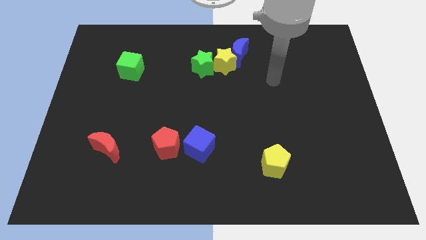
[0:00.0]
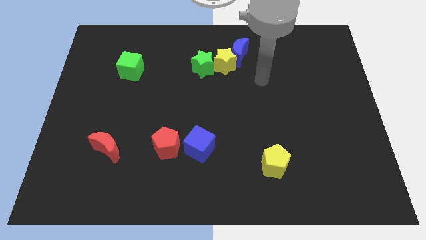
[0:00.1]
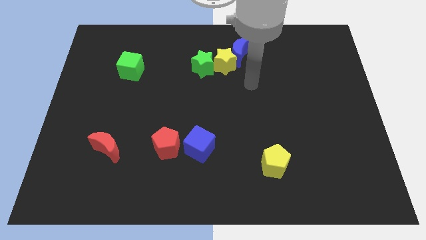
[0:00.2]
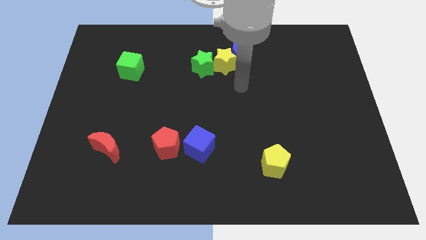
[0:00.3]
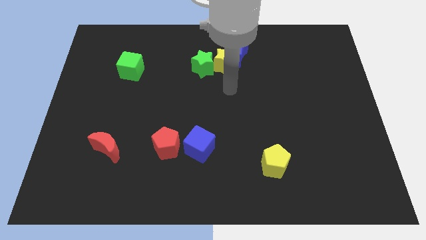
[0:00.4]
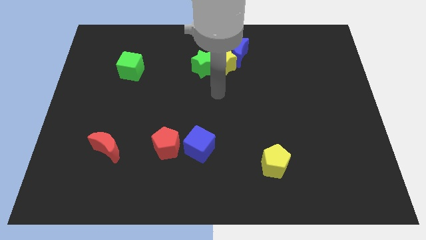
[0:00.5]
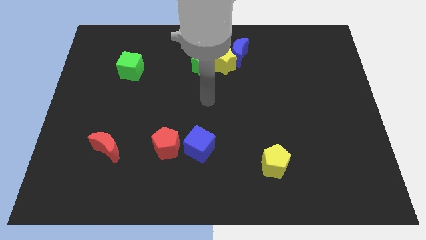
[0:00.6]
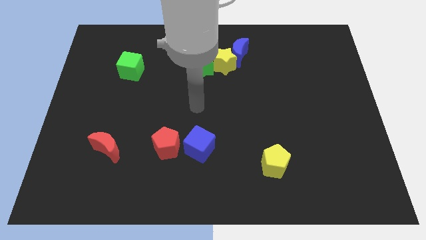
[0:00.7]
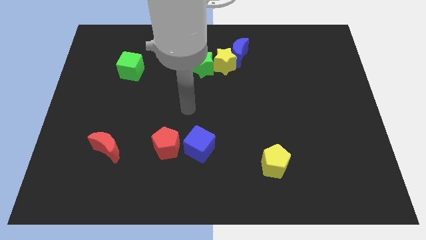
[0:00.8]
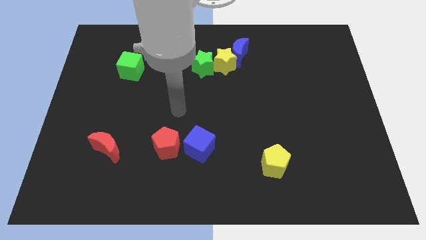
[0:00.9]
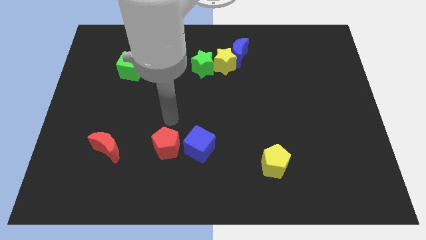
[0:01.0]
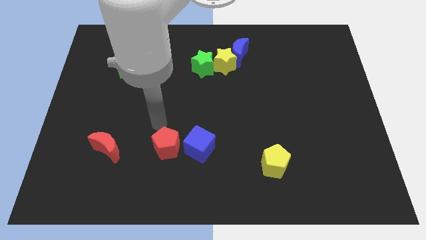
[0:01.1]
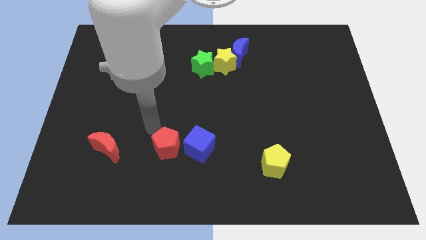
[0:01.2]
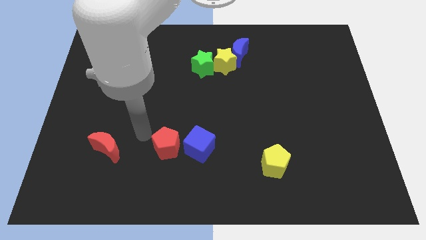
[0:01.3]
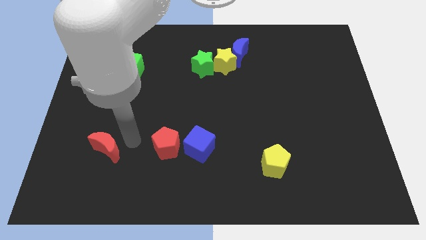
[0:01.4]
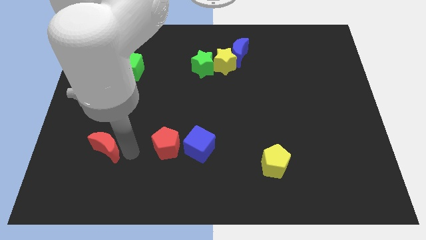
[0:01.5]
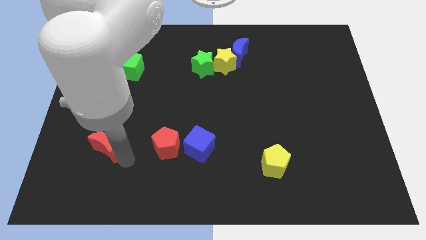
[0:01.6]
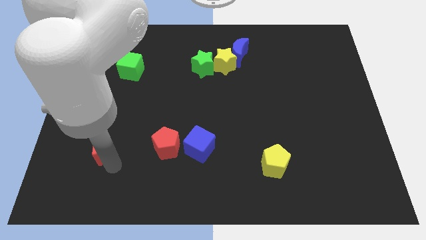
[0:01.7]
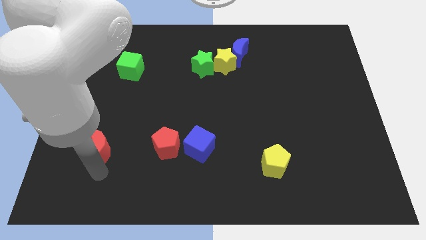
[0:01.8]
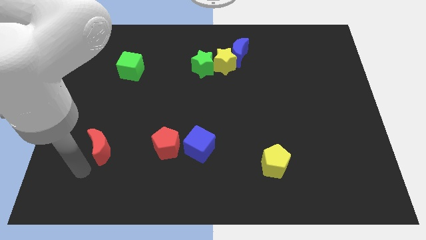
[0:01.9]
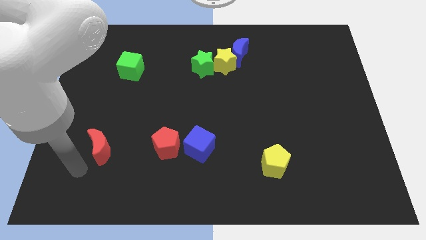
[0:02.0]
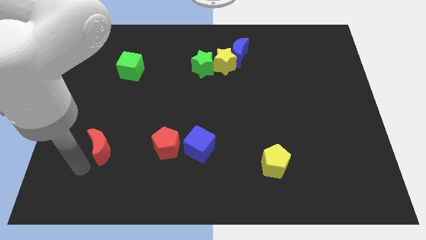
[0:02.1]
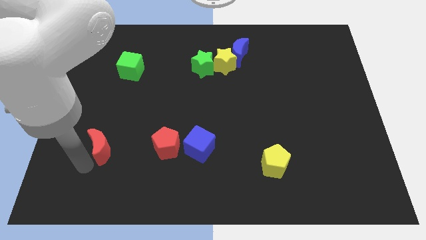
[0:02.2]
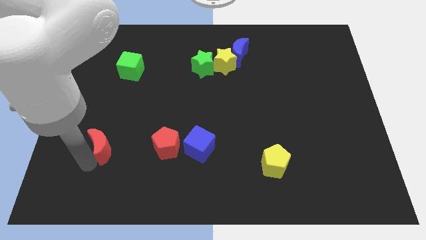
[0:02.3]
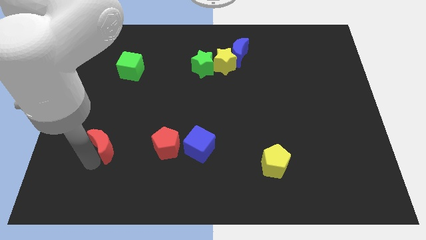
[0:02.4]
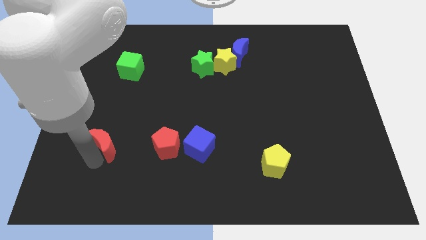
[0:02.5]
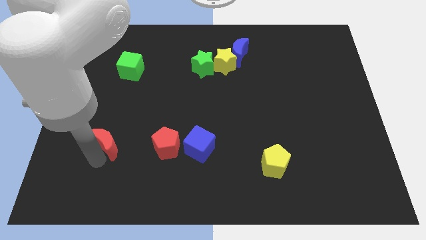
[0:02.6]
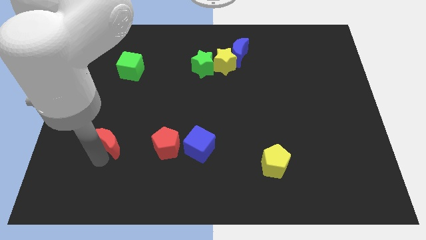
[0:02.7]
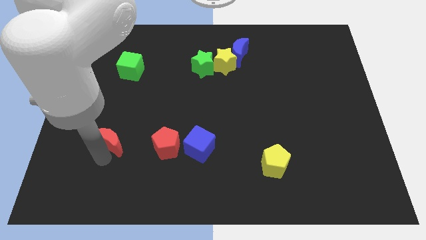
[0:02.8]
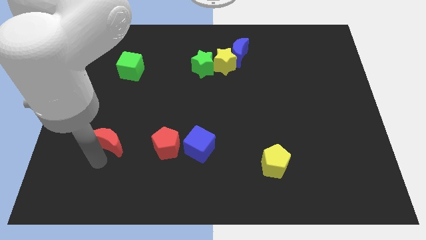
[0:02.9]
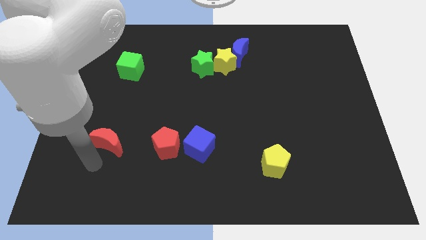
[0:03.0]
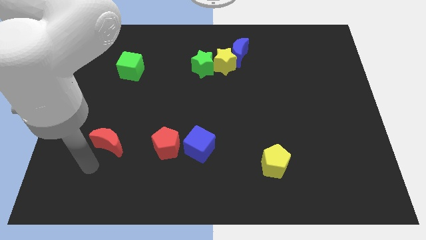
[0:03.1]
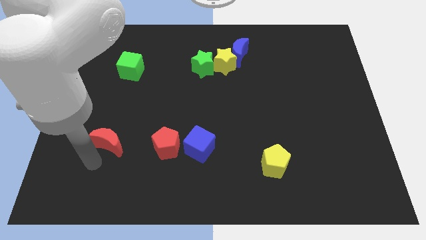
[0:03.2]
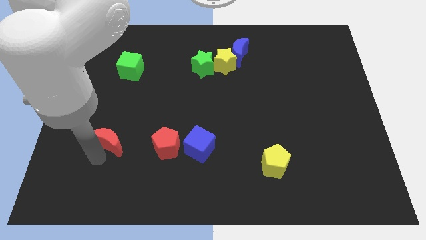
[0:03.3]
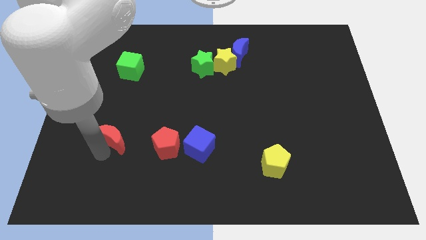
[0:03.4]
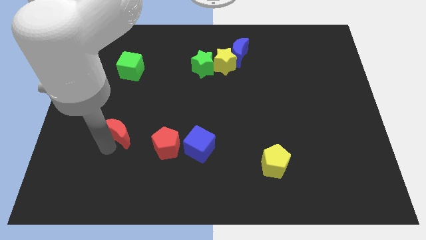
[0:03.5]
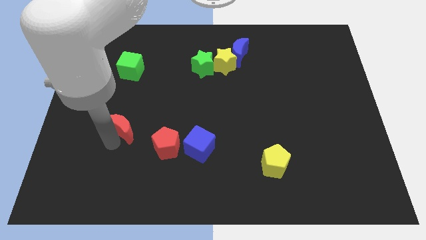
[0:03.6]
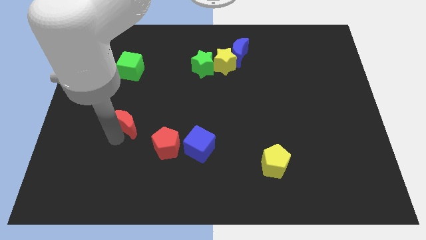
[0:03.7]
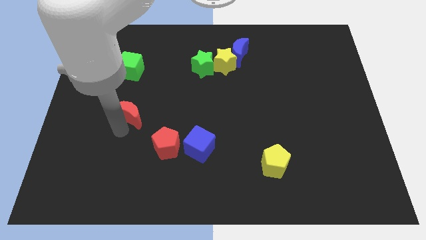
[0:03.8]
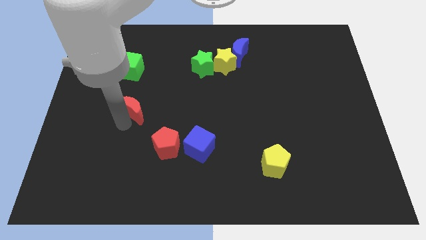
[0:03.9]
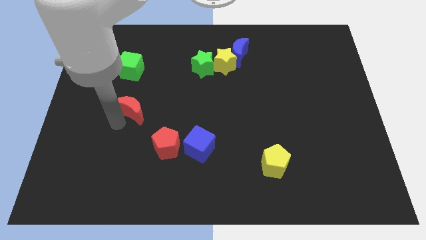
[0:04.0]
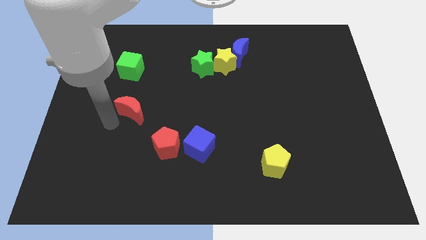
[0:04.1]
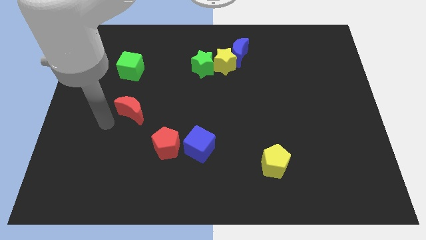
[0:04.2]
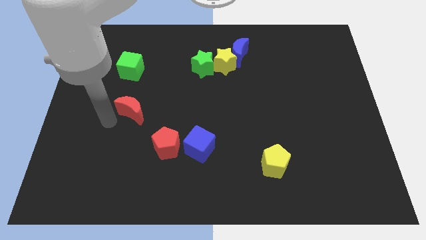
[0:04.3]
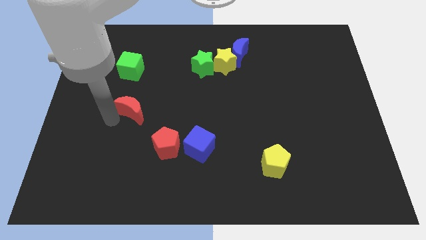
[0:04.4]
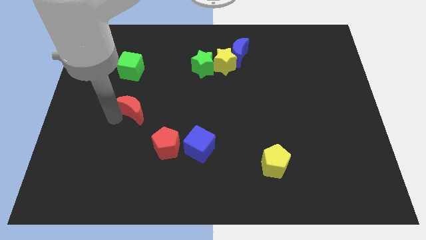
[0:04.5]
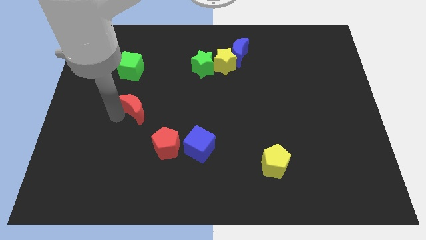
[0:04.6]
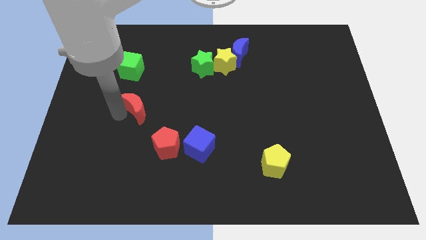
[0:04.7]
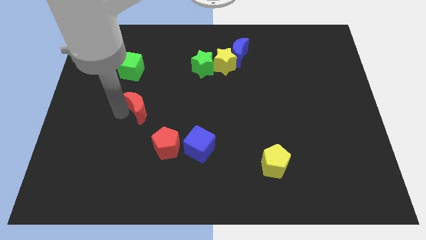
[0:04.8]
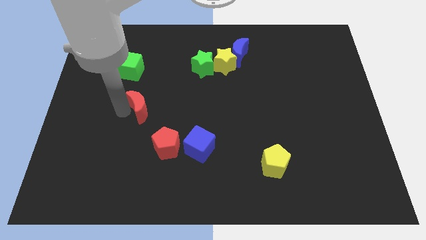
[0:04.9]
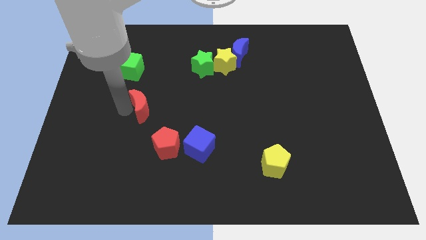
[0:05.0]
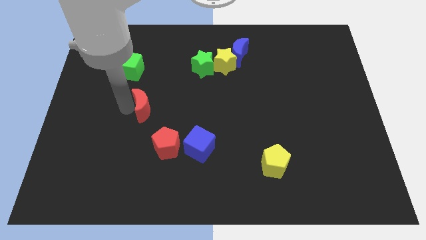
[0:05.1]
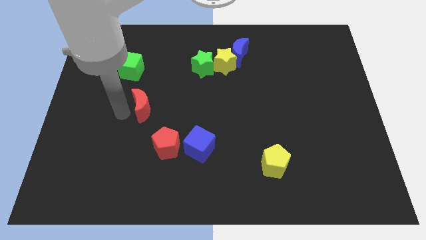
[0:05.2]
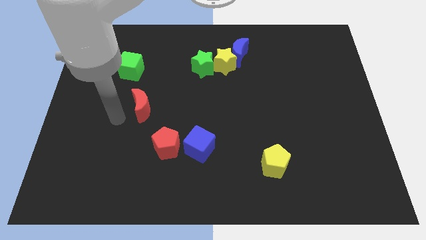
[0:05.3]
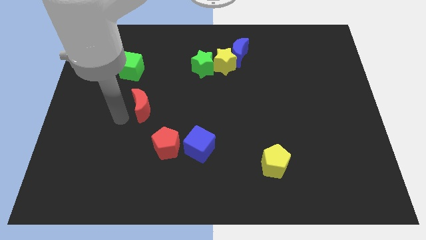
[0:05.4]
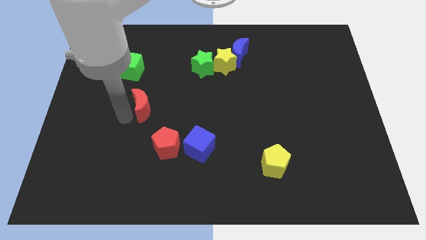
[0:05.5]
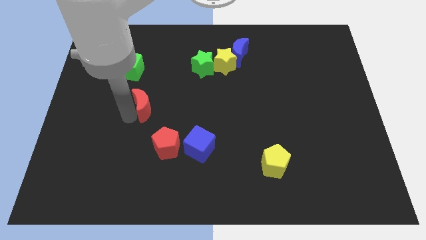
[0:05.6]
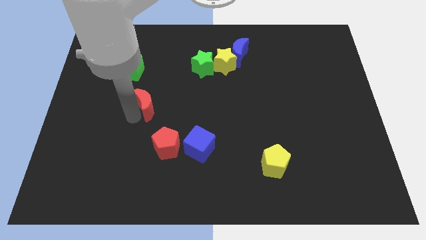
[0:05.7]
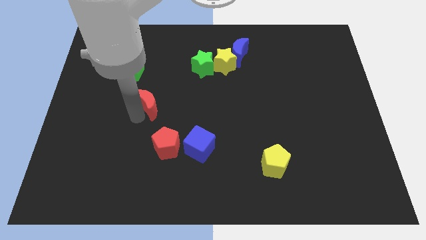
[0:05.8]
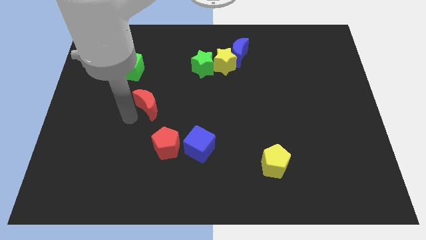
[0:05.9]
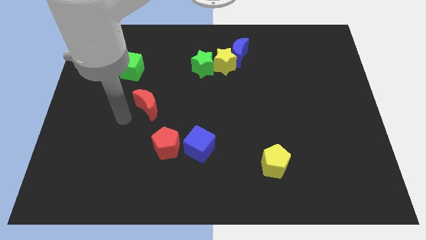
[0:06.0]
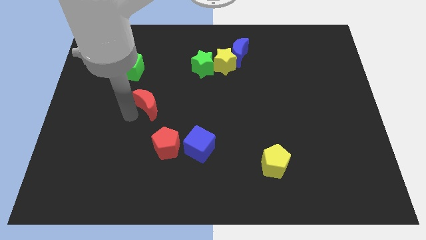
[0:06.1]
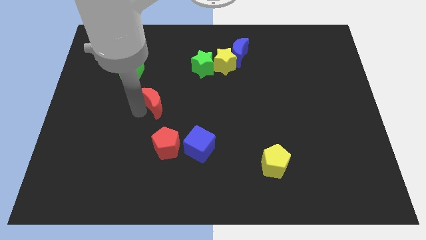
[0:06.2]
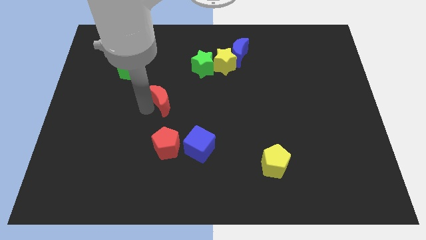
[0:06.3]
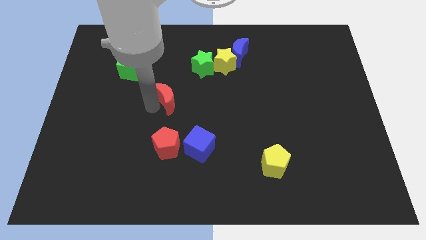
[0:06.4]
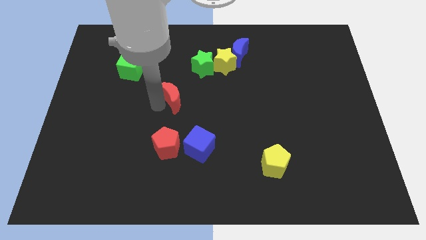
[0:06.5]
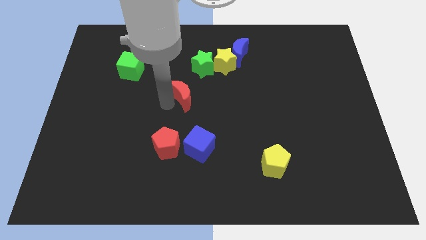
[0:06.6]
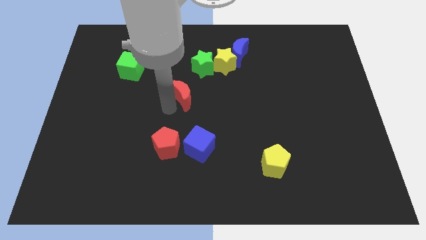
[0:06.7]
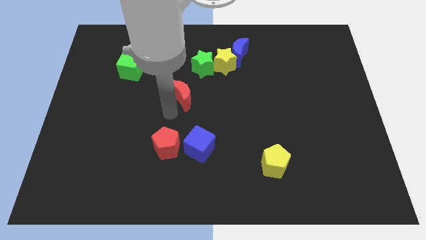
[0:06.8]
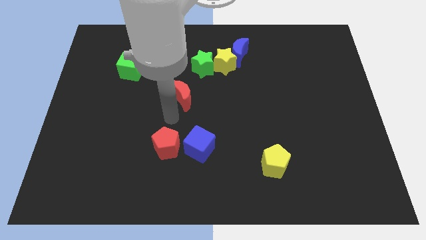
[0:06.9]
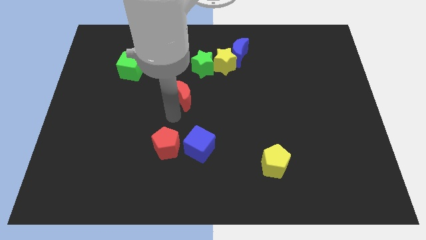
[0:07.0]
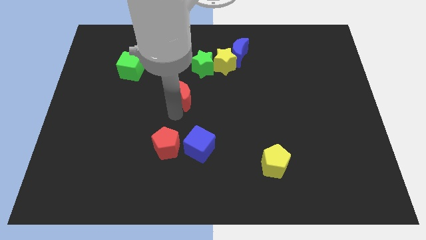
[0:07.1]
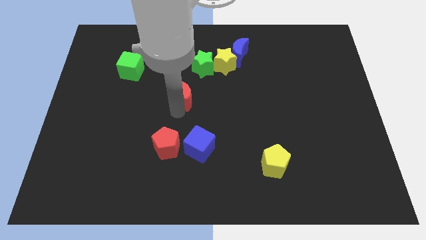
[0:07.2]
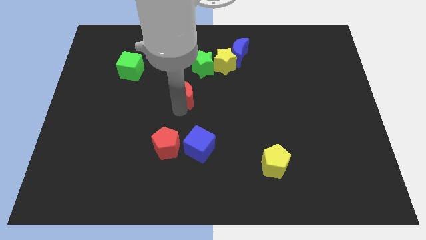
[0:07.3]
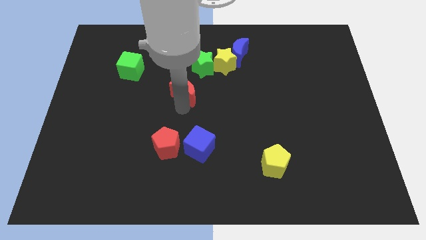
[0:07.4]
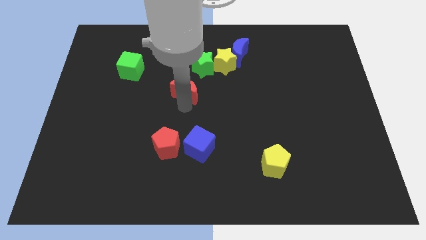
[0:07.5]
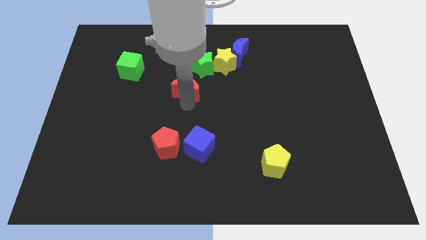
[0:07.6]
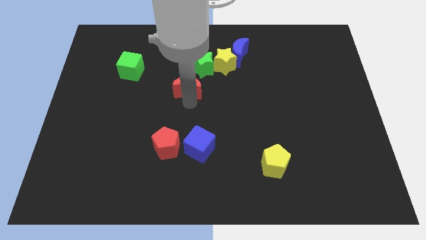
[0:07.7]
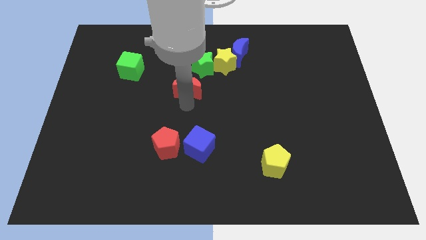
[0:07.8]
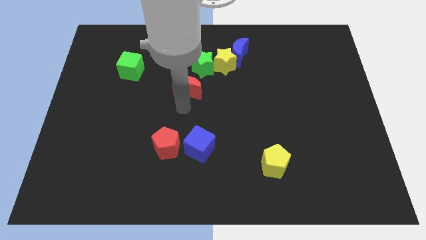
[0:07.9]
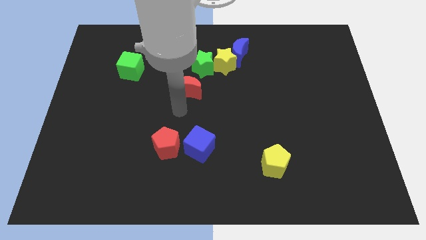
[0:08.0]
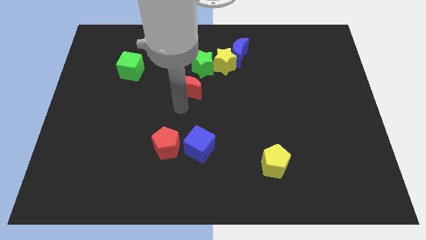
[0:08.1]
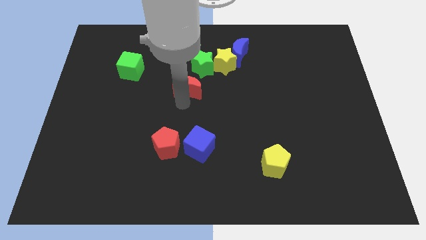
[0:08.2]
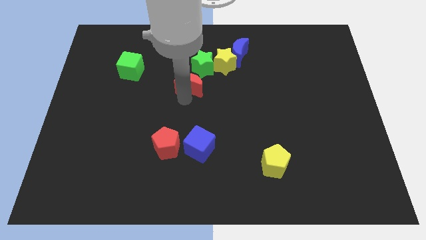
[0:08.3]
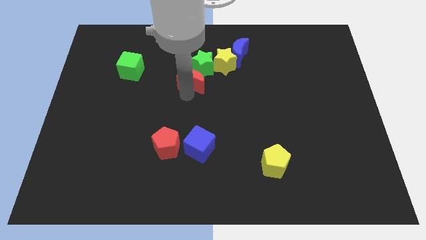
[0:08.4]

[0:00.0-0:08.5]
push the red moon to the green star
